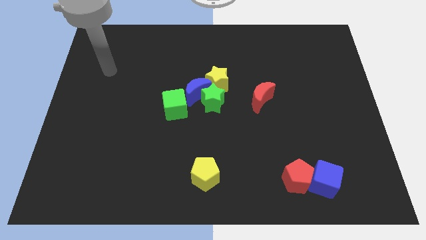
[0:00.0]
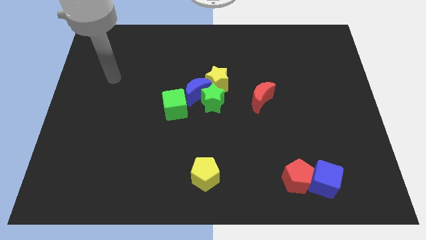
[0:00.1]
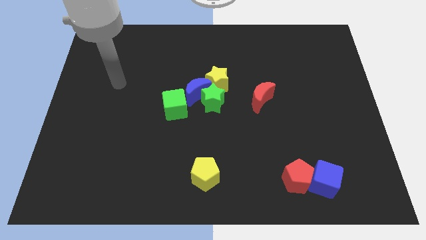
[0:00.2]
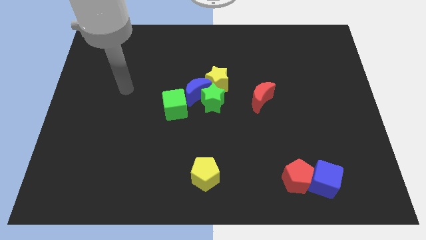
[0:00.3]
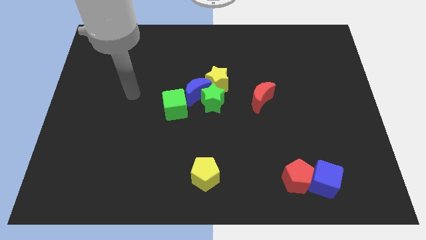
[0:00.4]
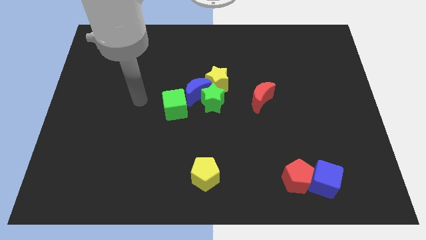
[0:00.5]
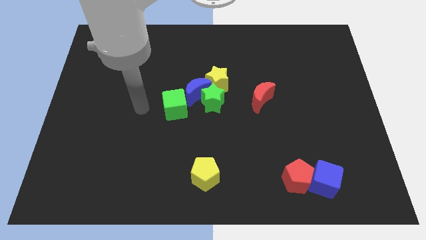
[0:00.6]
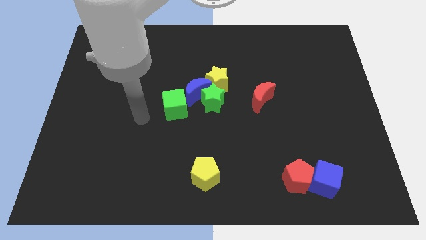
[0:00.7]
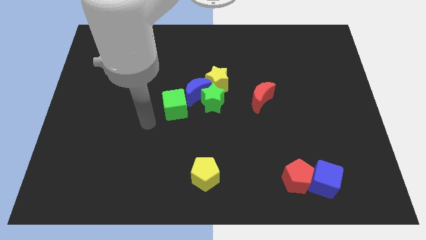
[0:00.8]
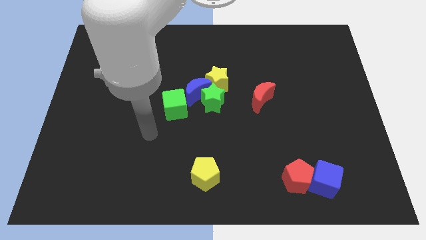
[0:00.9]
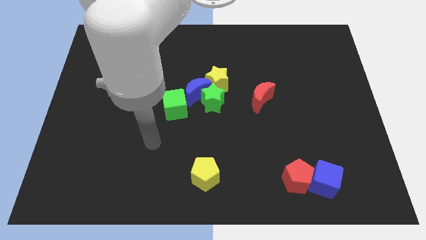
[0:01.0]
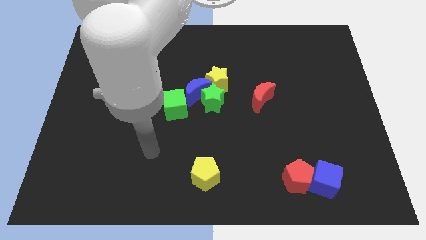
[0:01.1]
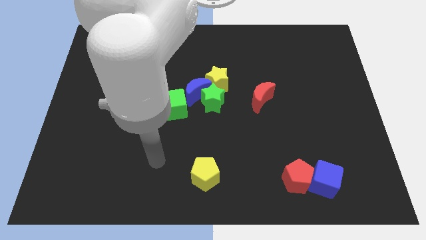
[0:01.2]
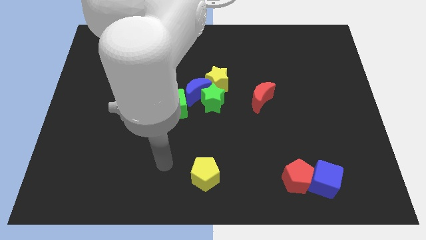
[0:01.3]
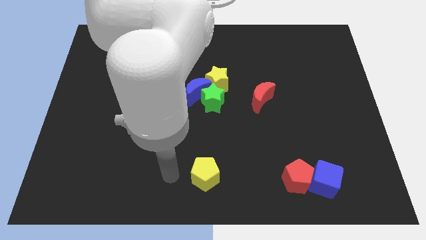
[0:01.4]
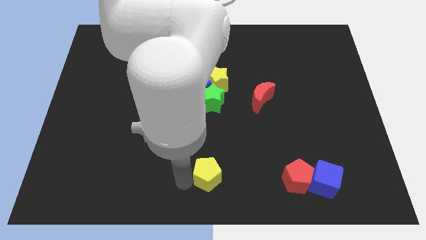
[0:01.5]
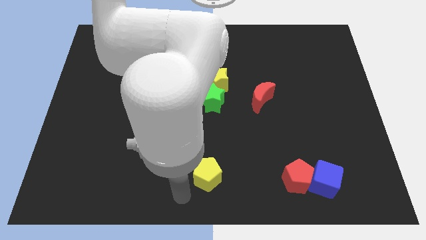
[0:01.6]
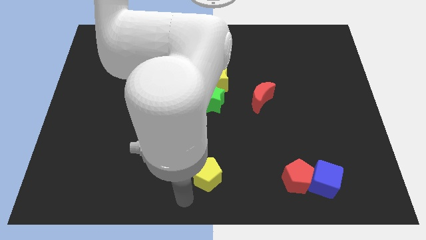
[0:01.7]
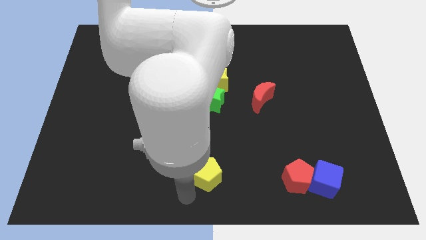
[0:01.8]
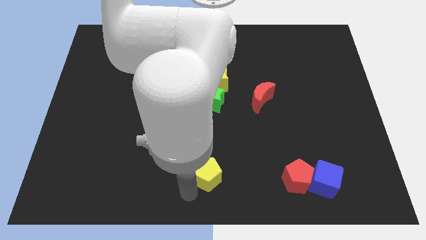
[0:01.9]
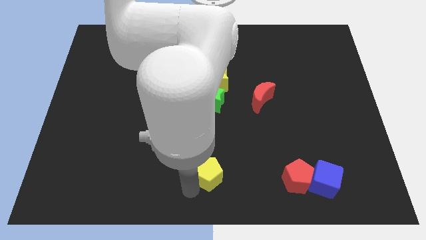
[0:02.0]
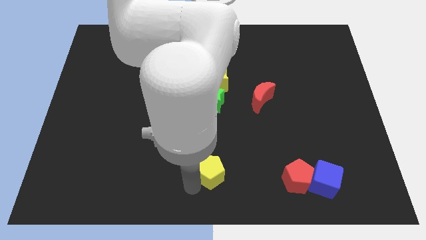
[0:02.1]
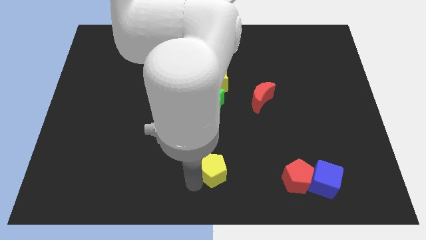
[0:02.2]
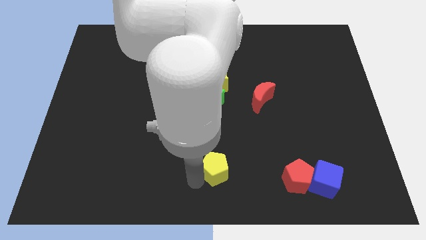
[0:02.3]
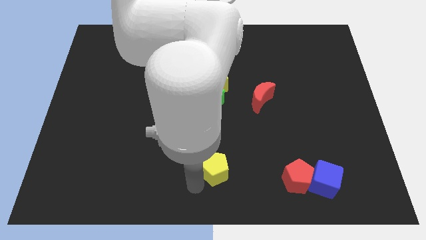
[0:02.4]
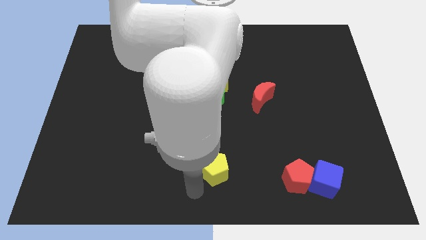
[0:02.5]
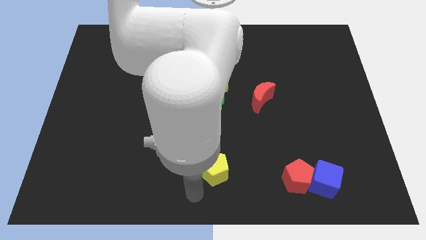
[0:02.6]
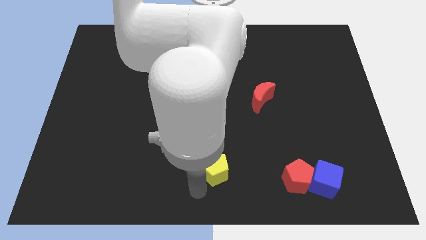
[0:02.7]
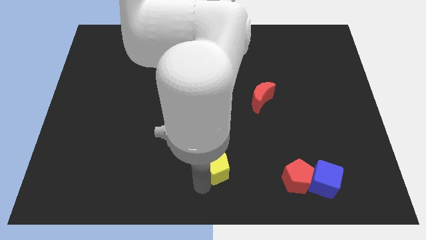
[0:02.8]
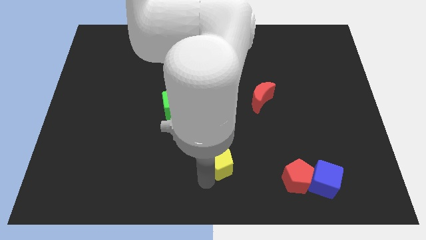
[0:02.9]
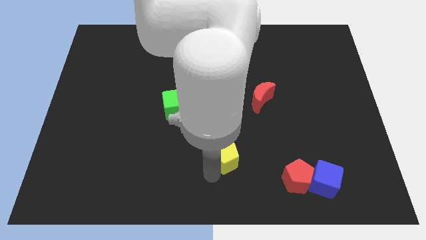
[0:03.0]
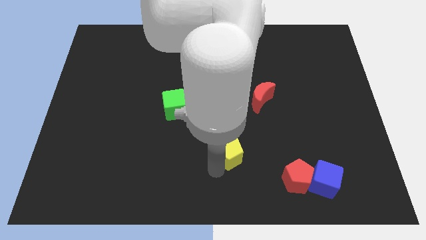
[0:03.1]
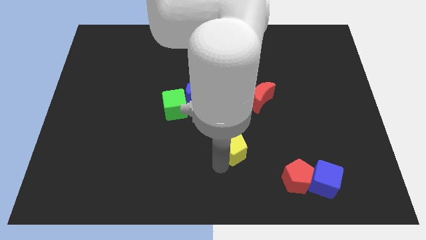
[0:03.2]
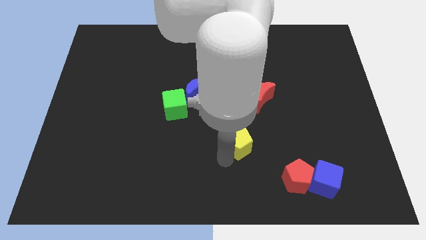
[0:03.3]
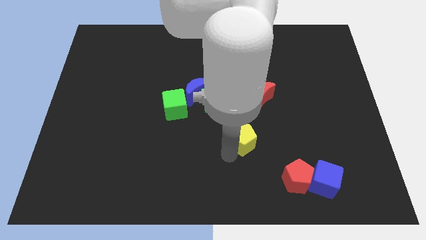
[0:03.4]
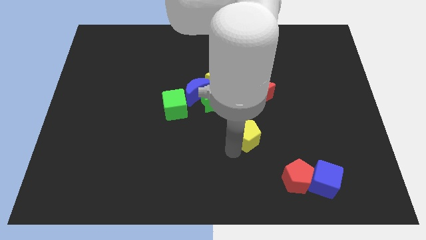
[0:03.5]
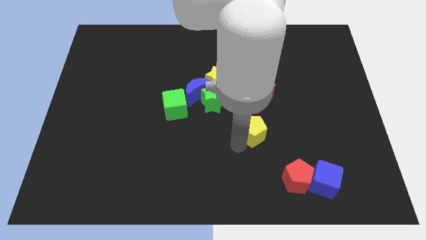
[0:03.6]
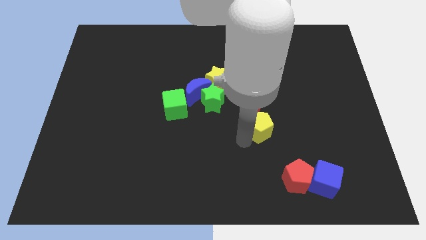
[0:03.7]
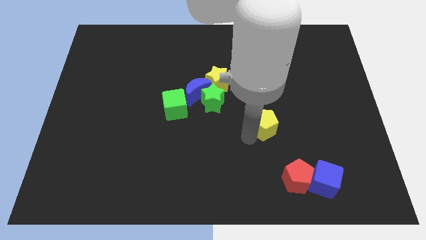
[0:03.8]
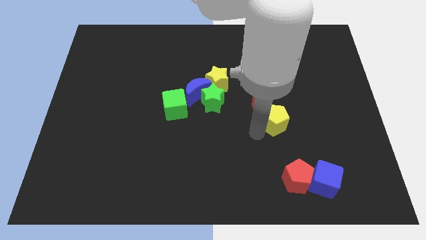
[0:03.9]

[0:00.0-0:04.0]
slide the yellow pentagon upwards and to the right diagonally

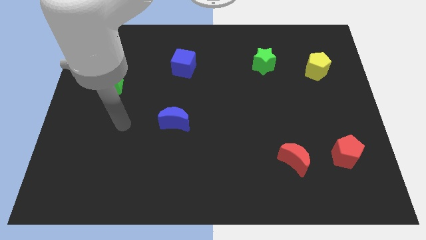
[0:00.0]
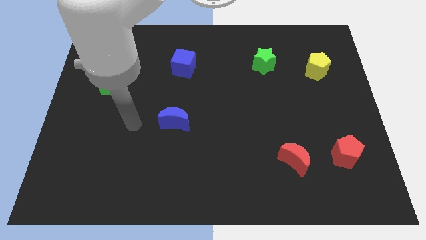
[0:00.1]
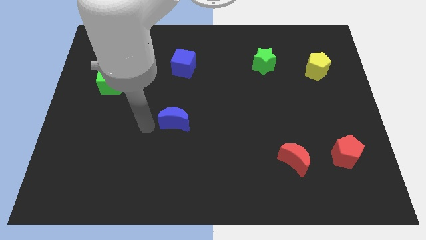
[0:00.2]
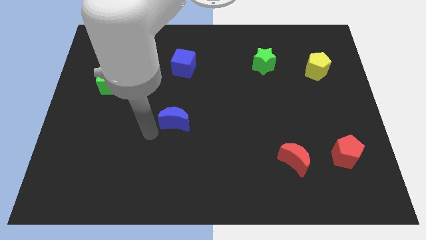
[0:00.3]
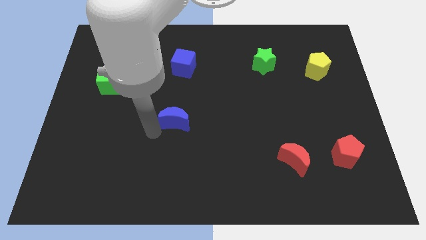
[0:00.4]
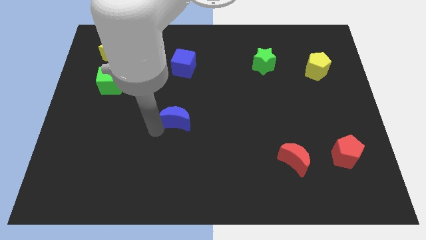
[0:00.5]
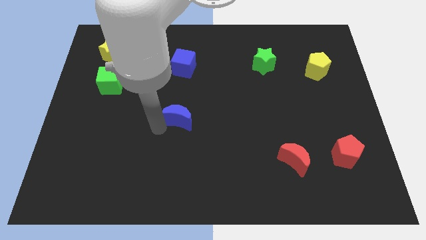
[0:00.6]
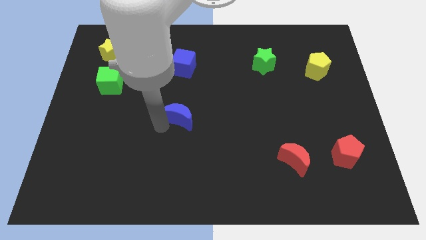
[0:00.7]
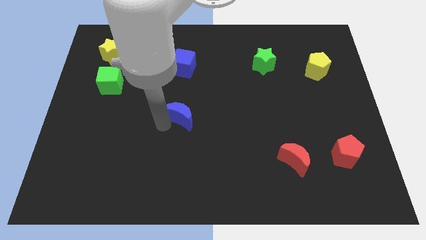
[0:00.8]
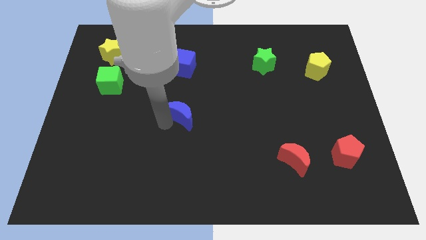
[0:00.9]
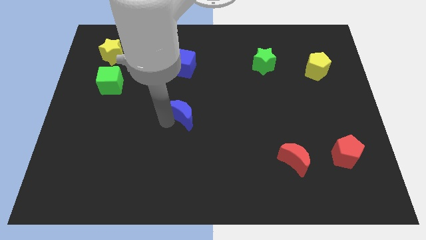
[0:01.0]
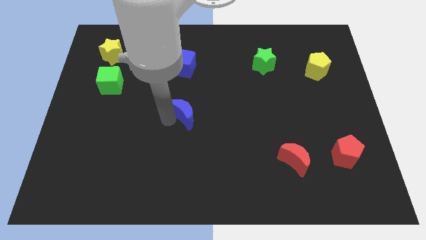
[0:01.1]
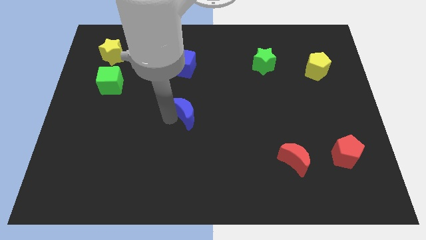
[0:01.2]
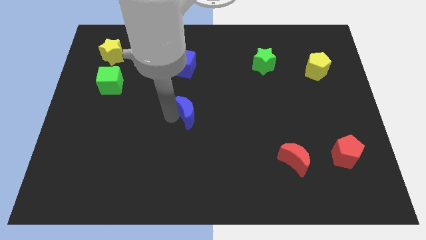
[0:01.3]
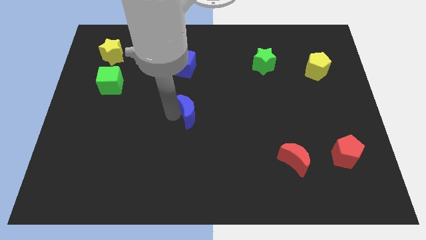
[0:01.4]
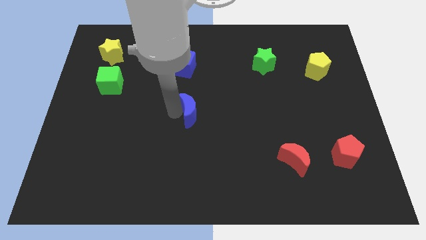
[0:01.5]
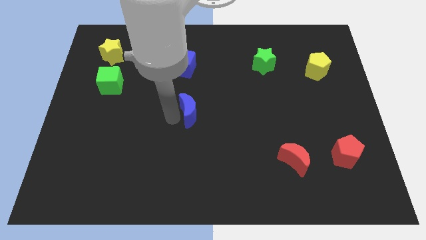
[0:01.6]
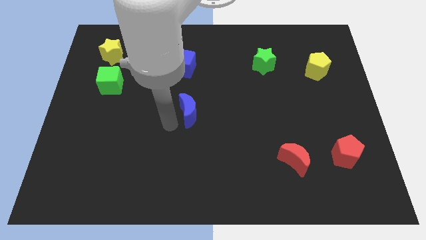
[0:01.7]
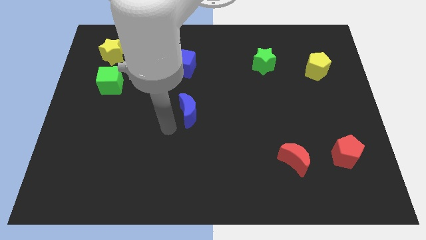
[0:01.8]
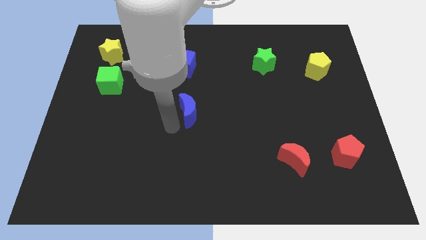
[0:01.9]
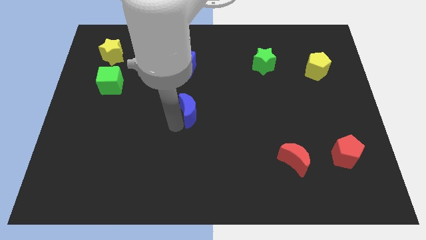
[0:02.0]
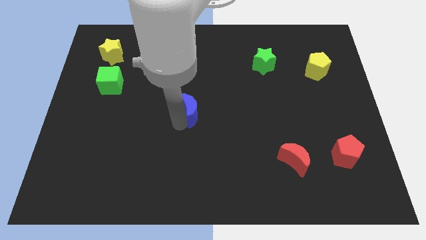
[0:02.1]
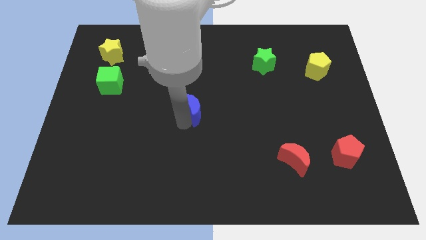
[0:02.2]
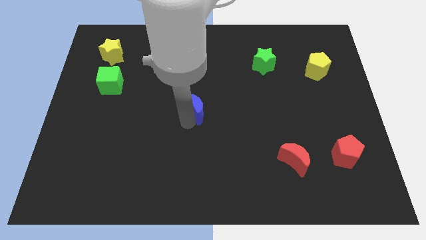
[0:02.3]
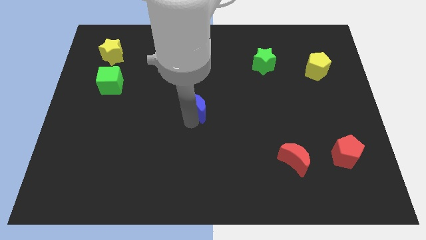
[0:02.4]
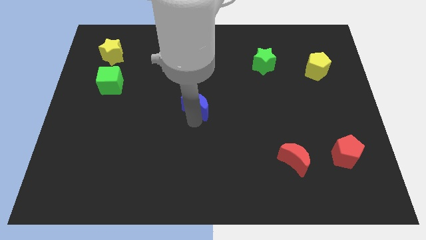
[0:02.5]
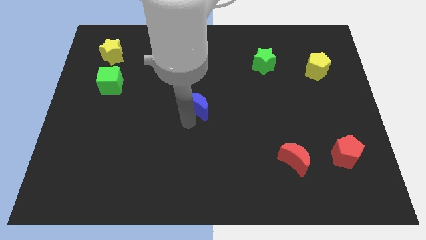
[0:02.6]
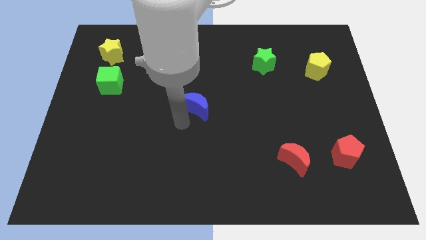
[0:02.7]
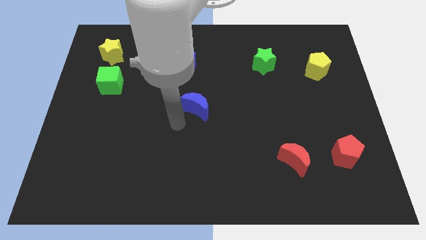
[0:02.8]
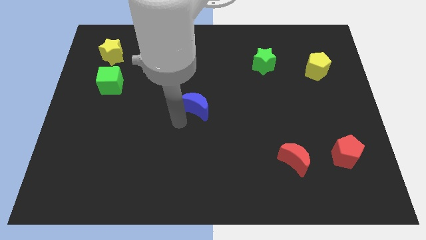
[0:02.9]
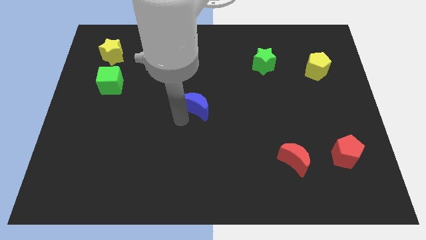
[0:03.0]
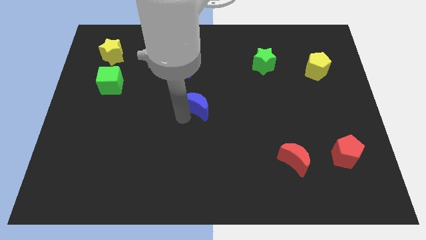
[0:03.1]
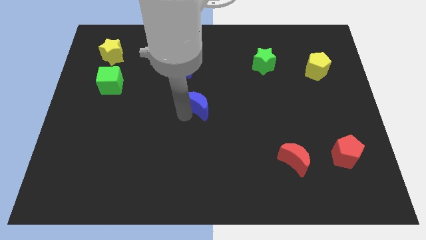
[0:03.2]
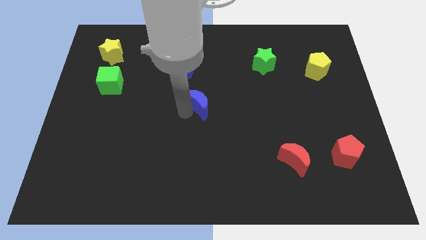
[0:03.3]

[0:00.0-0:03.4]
slightly slide the blue moon upwards and then right

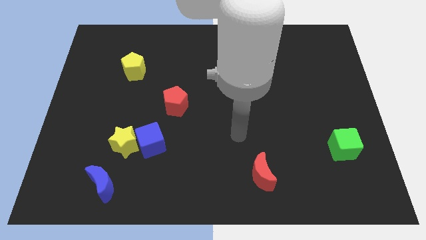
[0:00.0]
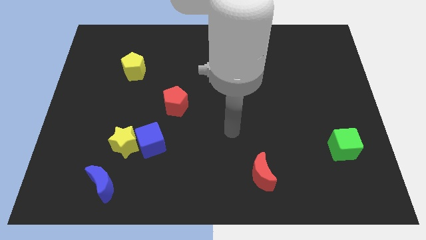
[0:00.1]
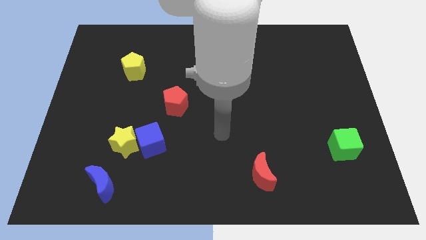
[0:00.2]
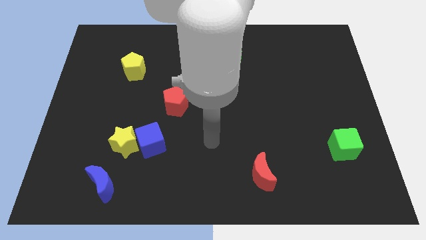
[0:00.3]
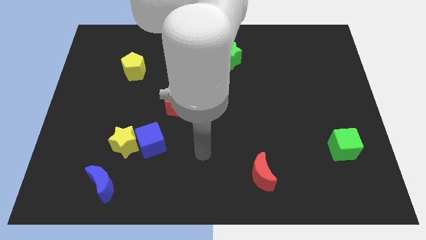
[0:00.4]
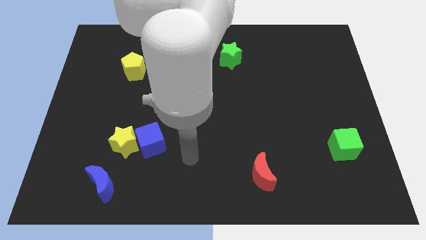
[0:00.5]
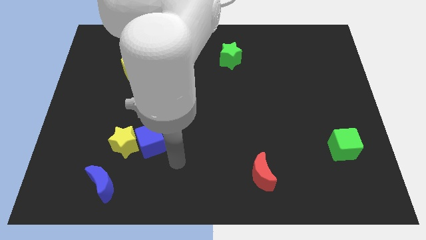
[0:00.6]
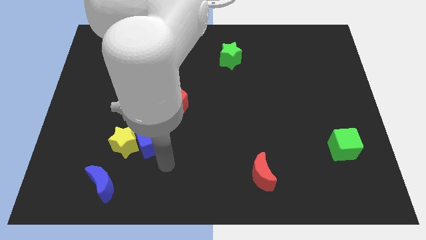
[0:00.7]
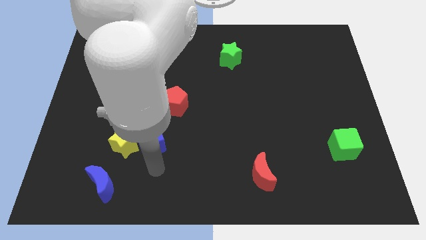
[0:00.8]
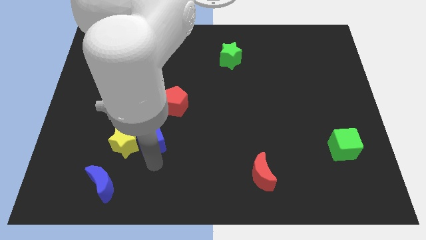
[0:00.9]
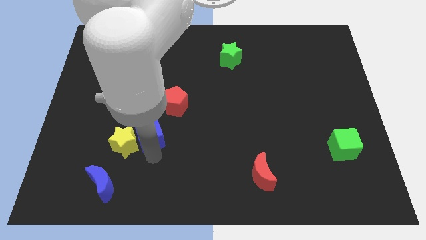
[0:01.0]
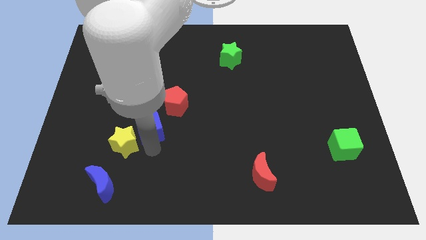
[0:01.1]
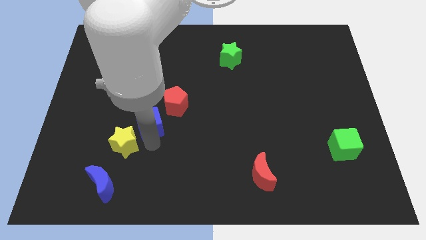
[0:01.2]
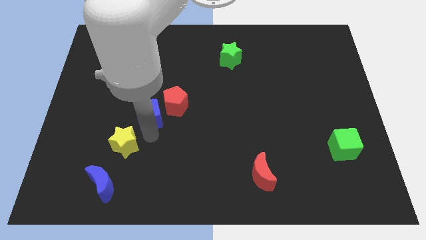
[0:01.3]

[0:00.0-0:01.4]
slightly slide the blue cube up
